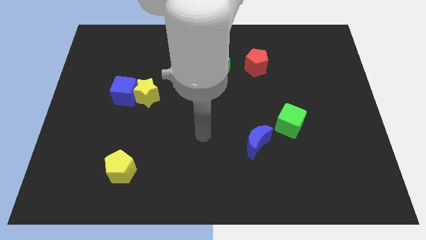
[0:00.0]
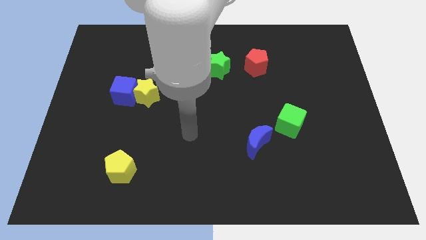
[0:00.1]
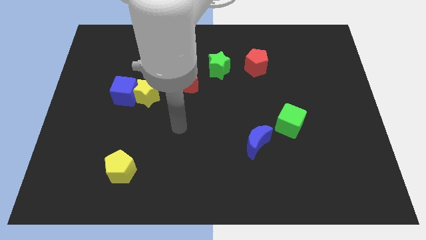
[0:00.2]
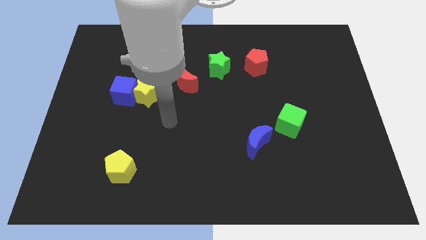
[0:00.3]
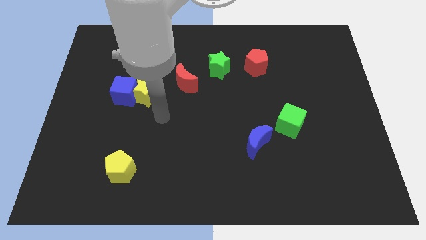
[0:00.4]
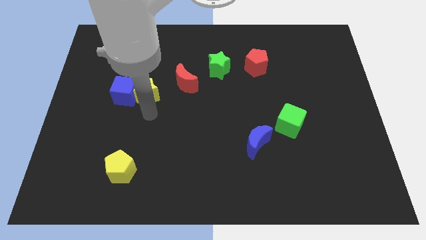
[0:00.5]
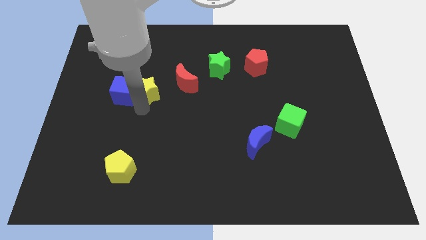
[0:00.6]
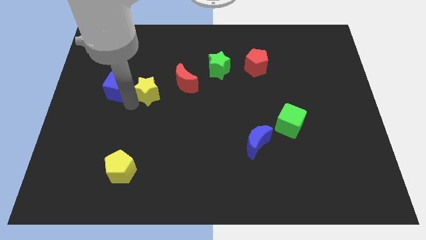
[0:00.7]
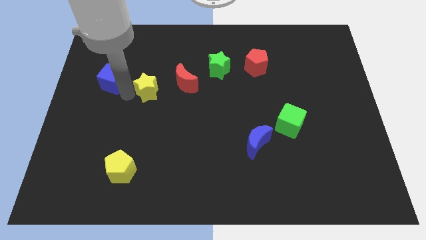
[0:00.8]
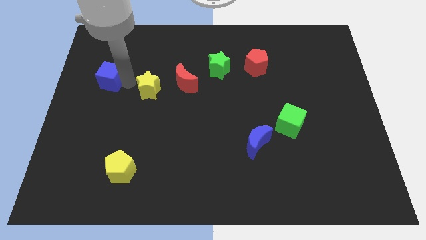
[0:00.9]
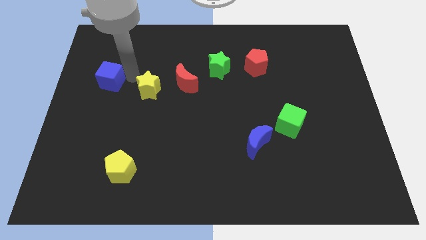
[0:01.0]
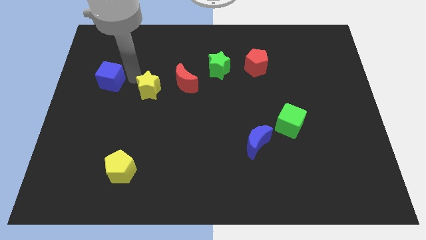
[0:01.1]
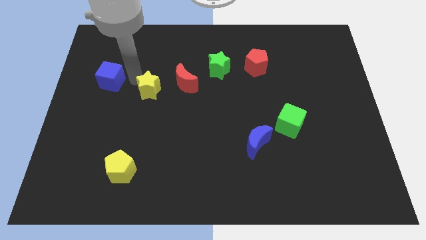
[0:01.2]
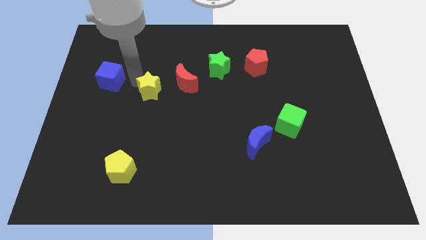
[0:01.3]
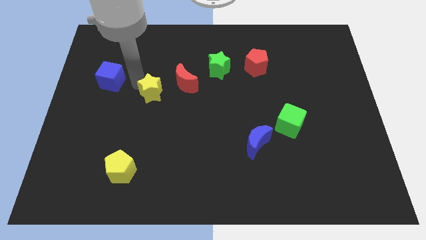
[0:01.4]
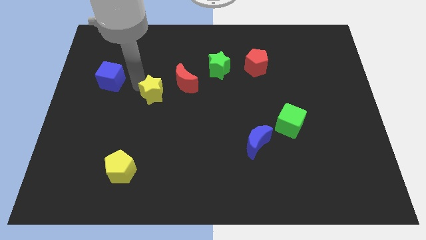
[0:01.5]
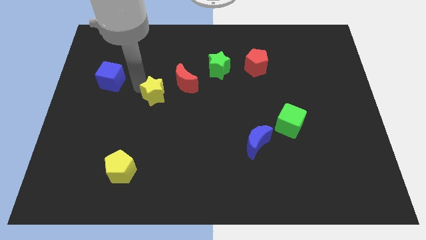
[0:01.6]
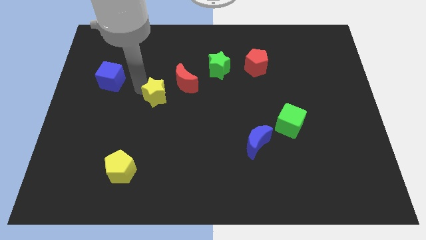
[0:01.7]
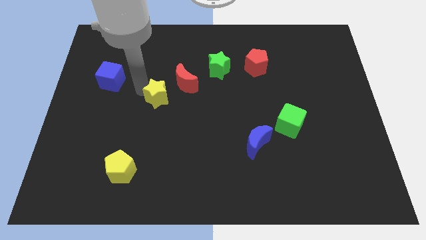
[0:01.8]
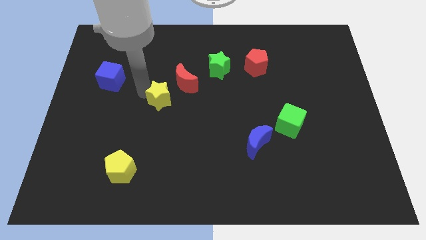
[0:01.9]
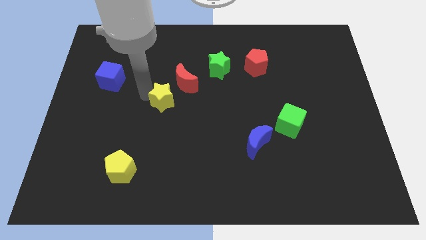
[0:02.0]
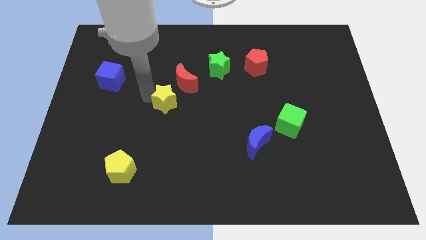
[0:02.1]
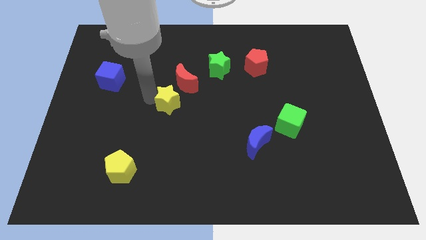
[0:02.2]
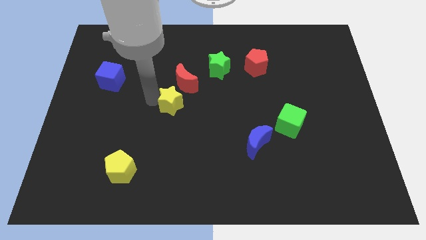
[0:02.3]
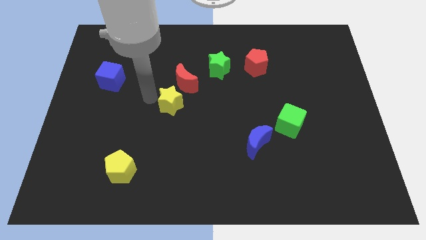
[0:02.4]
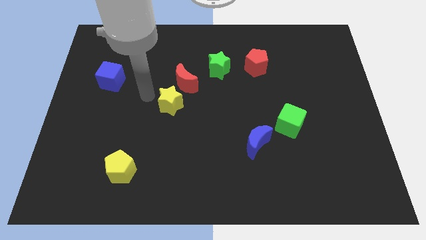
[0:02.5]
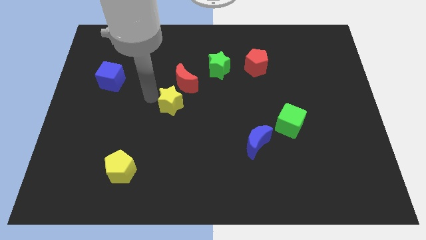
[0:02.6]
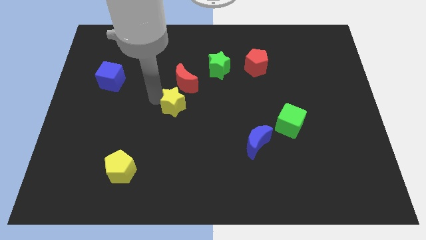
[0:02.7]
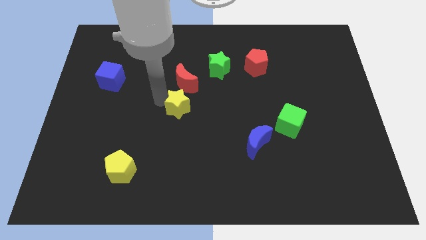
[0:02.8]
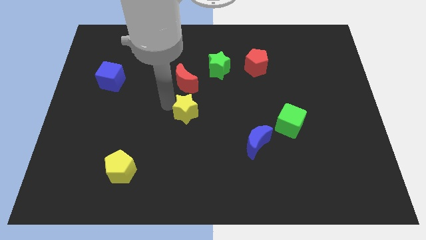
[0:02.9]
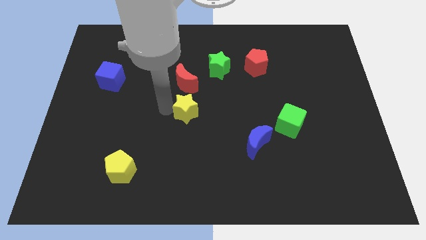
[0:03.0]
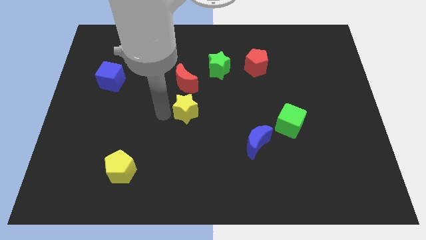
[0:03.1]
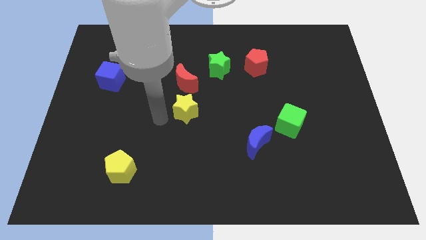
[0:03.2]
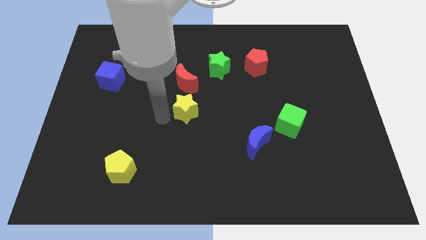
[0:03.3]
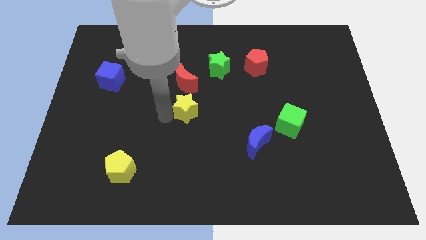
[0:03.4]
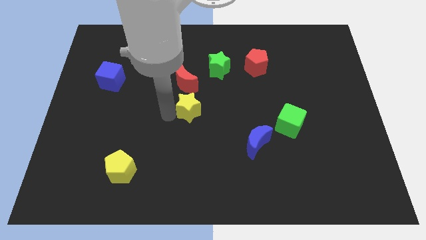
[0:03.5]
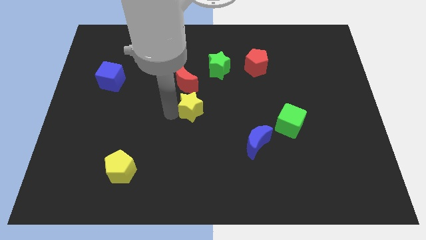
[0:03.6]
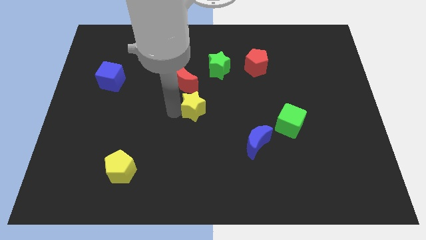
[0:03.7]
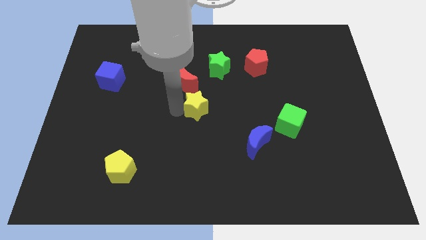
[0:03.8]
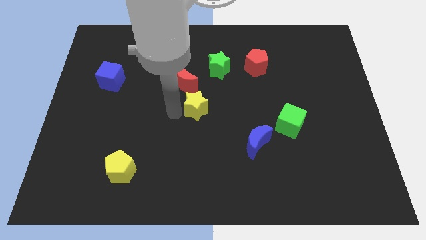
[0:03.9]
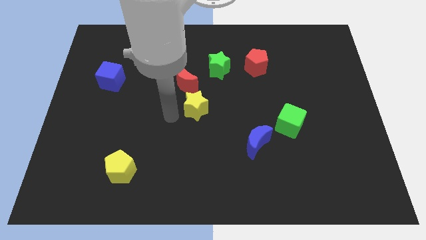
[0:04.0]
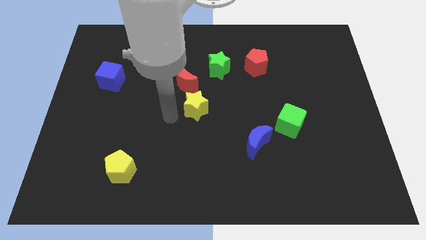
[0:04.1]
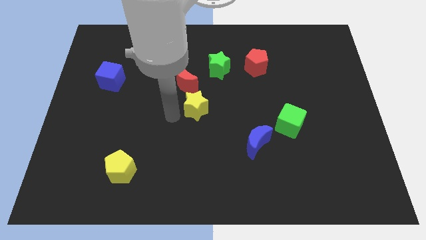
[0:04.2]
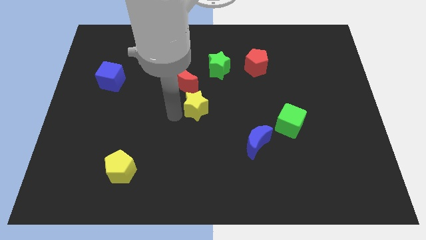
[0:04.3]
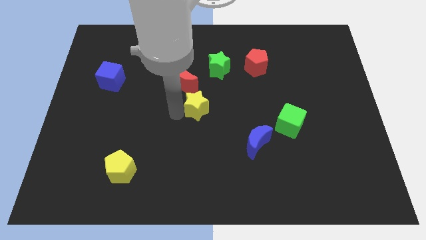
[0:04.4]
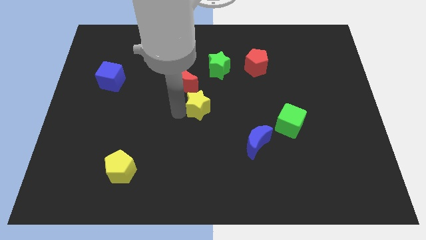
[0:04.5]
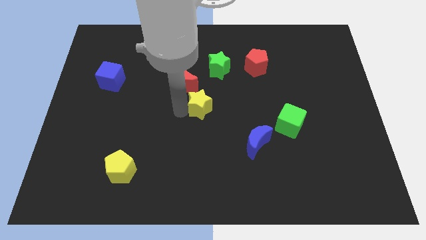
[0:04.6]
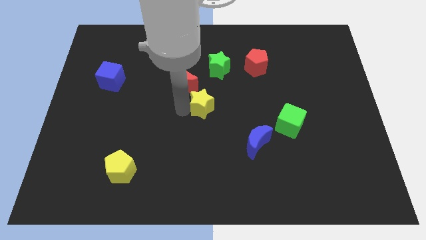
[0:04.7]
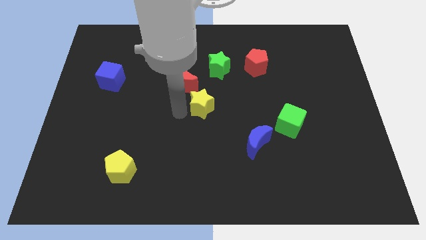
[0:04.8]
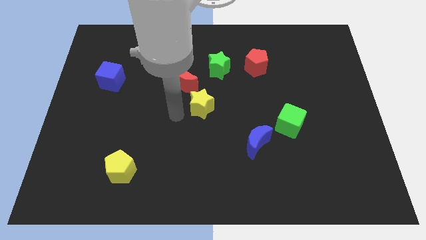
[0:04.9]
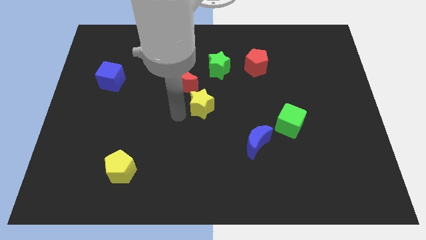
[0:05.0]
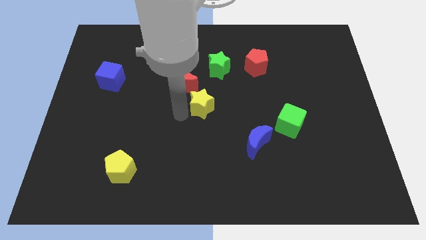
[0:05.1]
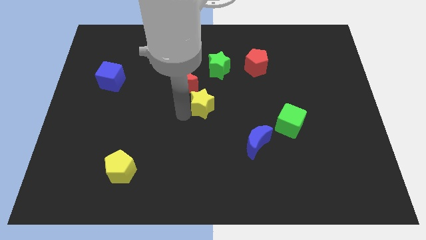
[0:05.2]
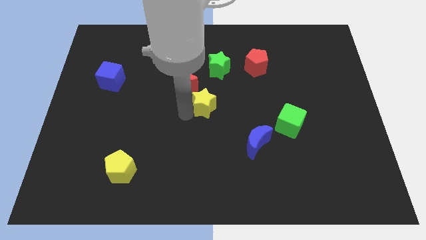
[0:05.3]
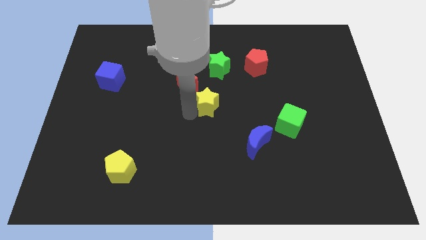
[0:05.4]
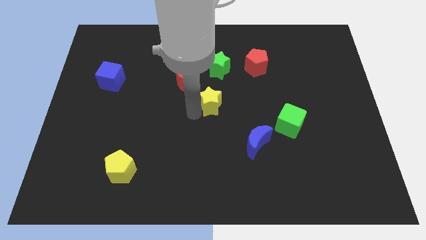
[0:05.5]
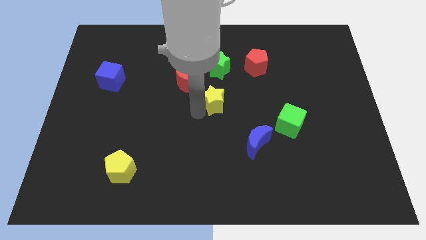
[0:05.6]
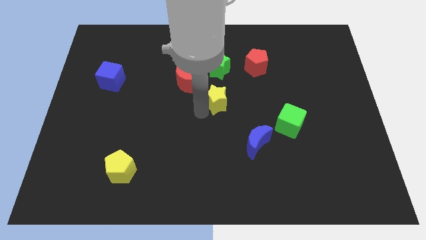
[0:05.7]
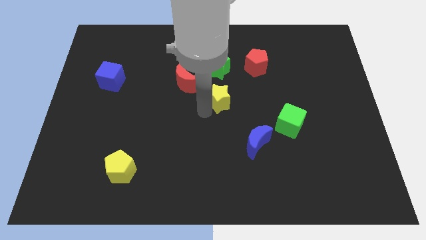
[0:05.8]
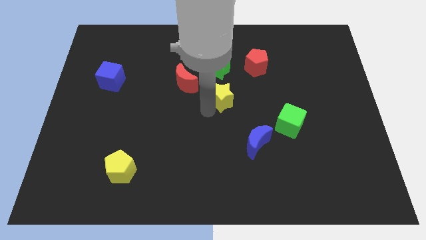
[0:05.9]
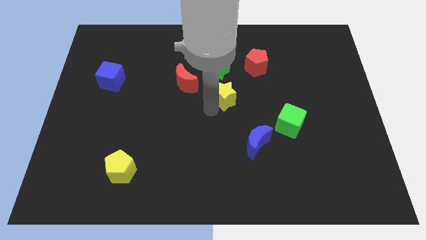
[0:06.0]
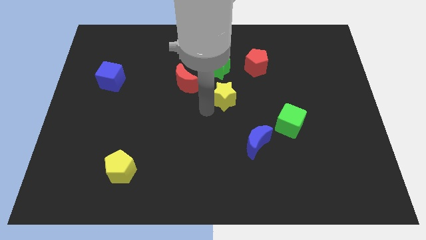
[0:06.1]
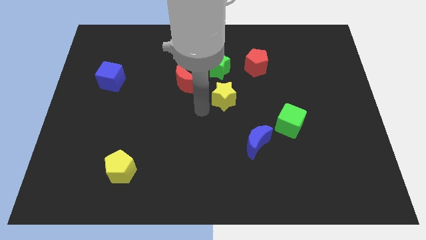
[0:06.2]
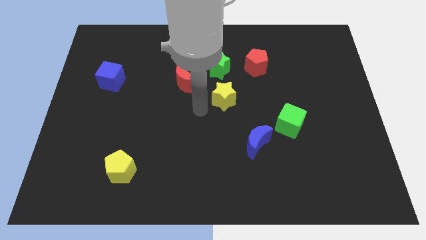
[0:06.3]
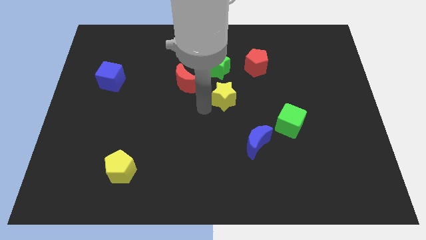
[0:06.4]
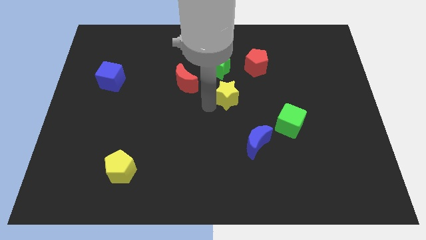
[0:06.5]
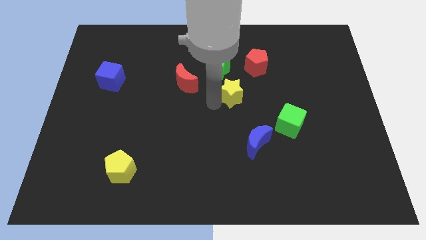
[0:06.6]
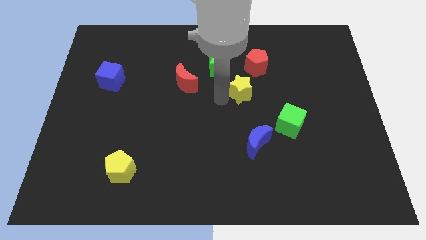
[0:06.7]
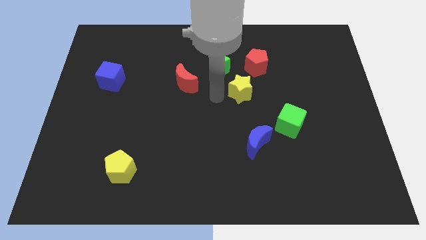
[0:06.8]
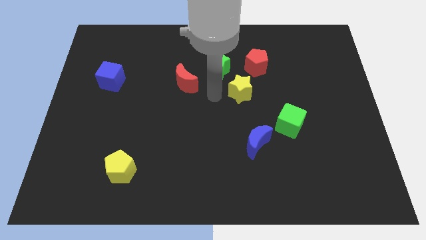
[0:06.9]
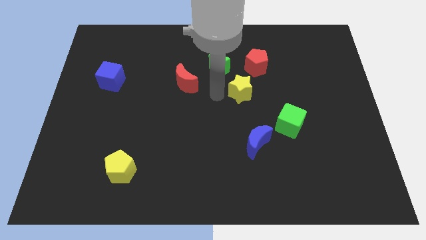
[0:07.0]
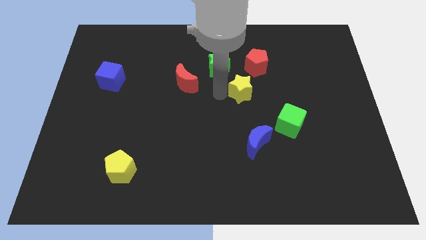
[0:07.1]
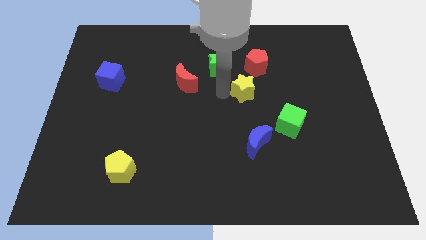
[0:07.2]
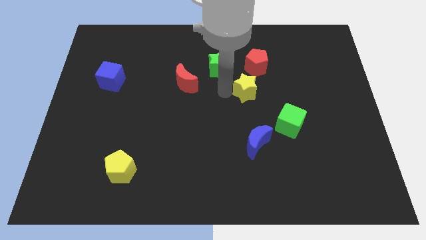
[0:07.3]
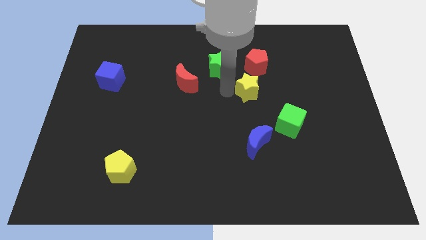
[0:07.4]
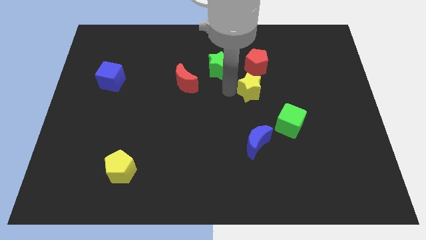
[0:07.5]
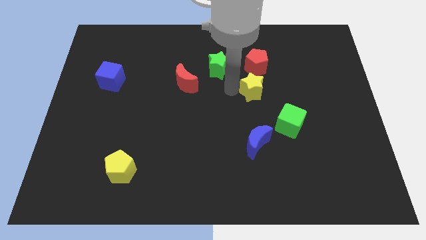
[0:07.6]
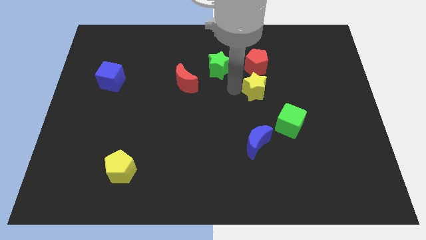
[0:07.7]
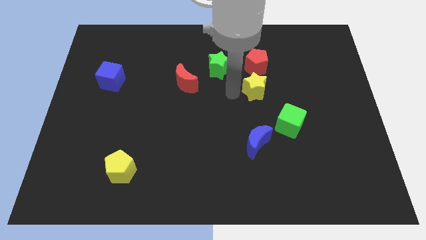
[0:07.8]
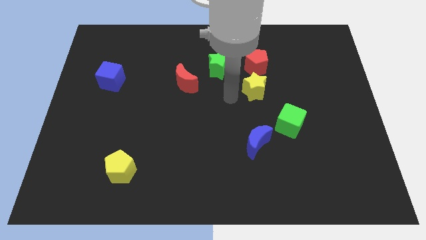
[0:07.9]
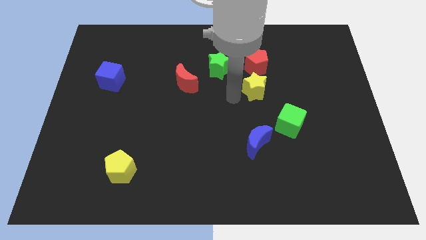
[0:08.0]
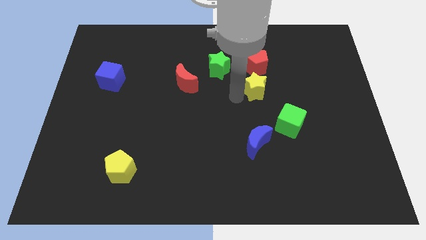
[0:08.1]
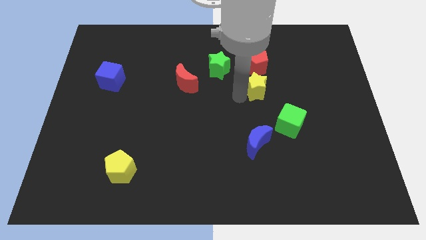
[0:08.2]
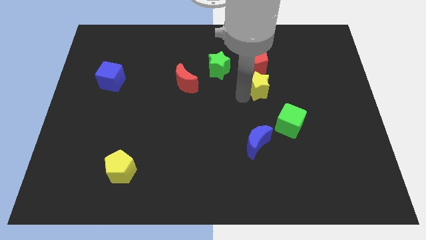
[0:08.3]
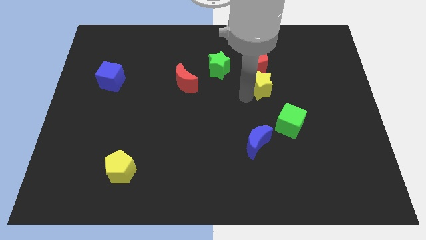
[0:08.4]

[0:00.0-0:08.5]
slide the yellow star diagonally down and to the right of the red pentagon
